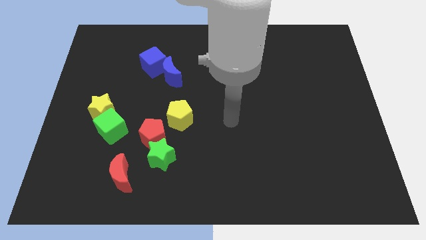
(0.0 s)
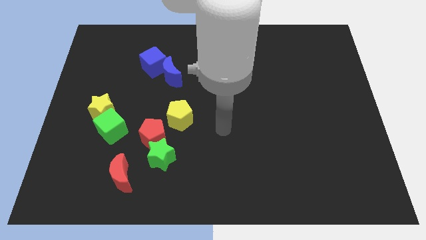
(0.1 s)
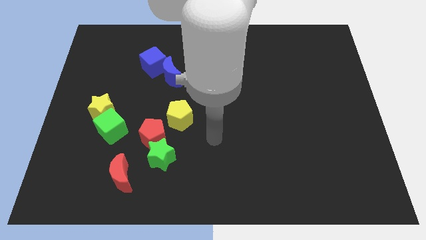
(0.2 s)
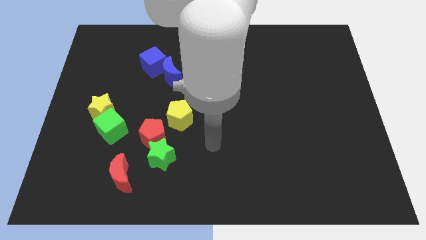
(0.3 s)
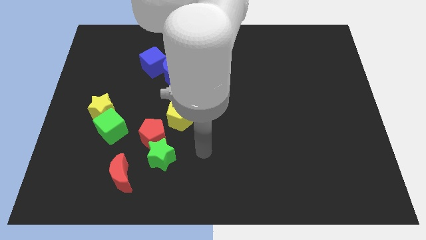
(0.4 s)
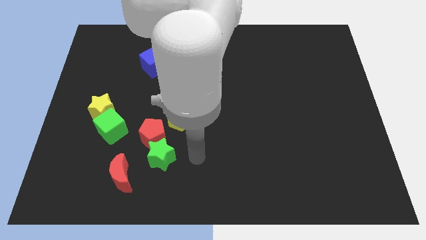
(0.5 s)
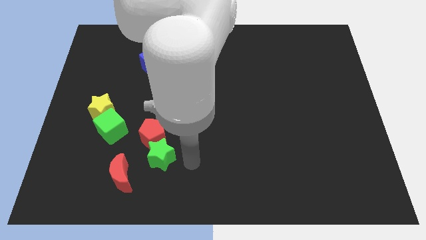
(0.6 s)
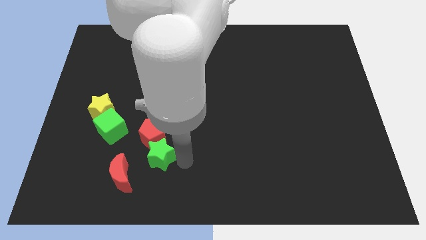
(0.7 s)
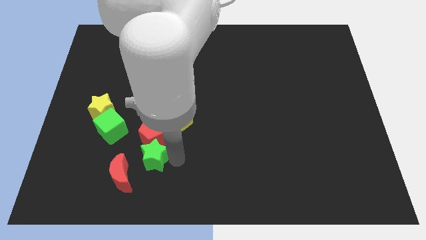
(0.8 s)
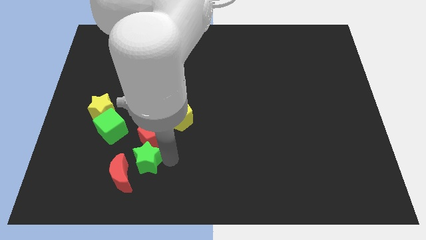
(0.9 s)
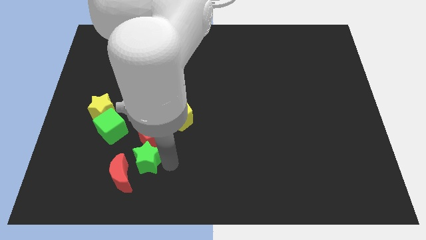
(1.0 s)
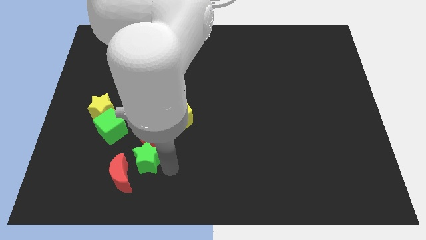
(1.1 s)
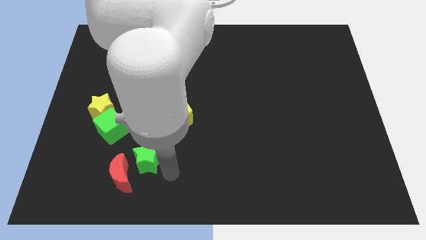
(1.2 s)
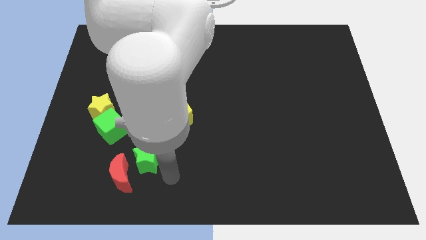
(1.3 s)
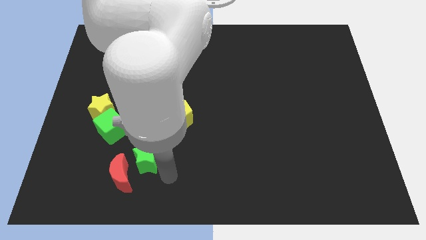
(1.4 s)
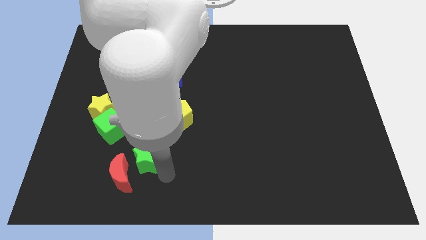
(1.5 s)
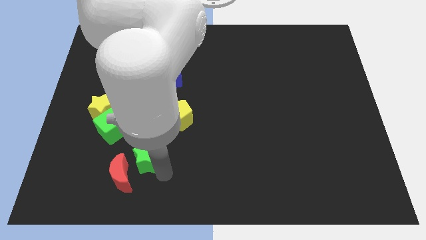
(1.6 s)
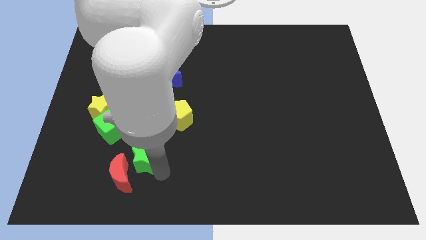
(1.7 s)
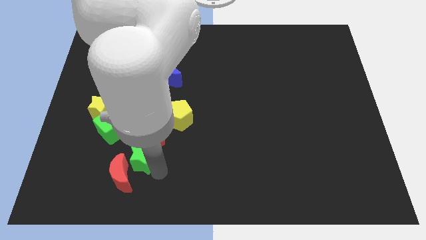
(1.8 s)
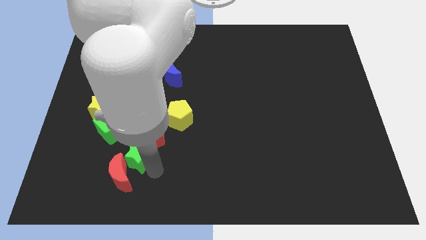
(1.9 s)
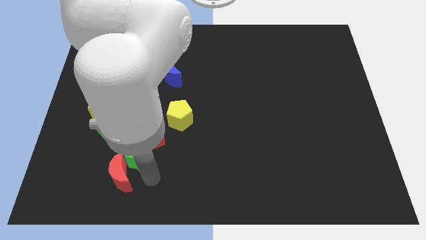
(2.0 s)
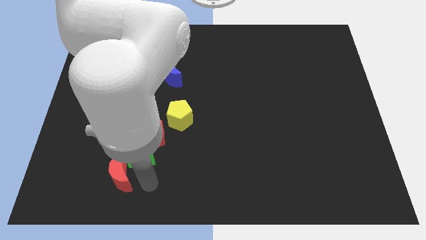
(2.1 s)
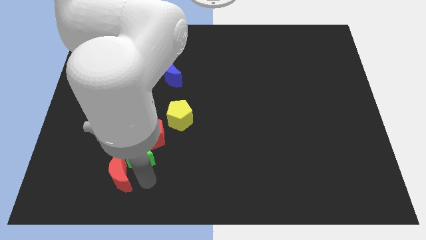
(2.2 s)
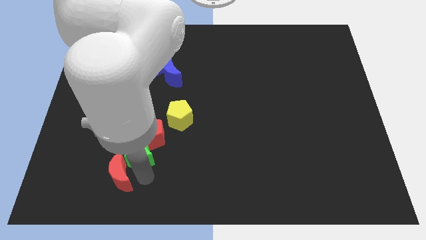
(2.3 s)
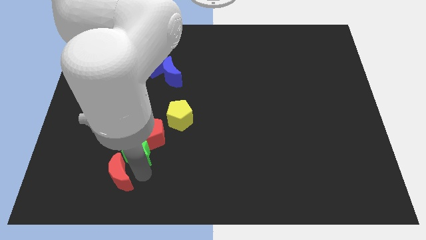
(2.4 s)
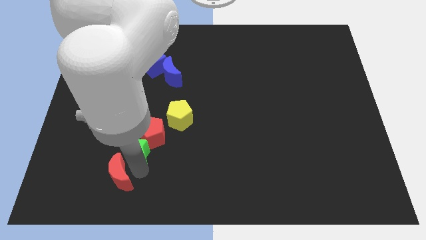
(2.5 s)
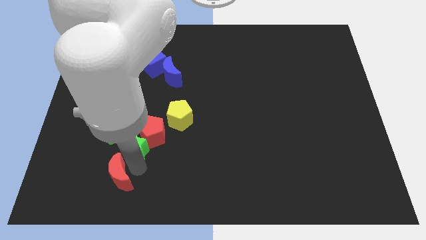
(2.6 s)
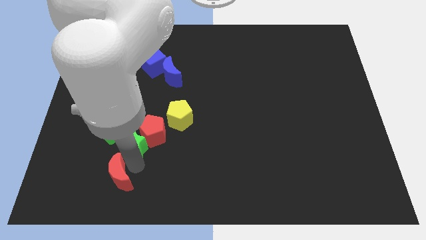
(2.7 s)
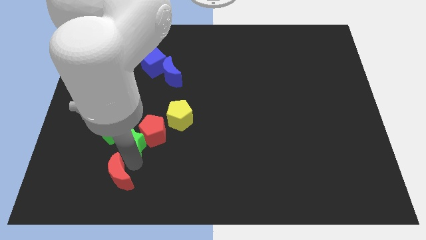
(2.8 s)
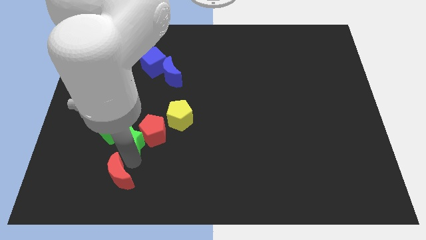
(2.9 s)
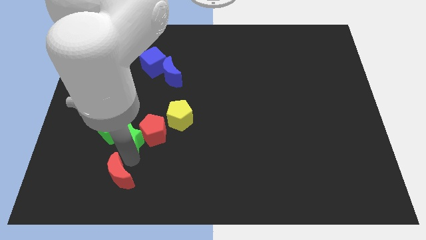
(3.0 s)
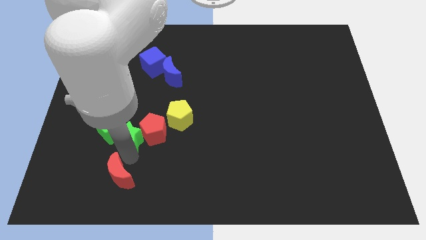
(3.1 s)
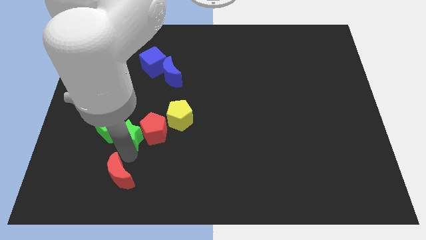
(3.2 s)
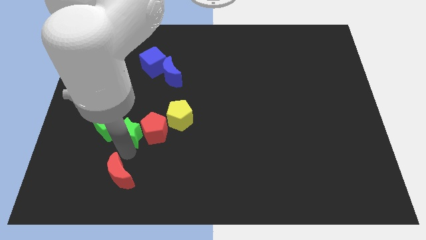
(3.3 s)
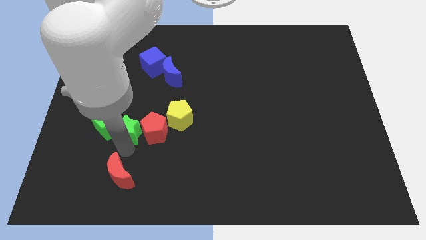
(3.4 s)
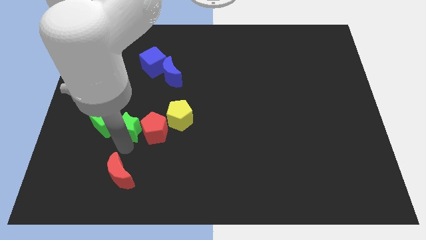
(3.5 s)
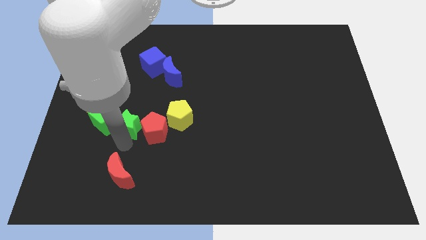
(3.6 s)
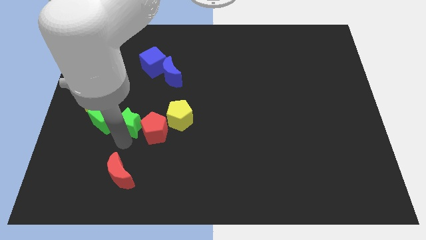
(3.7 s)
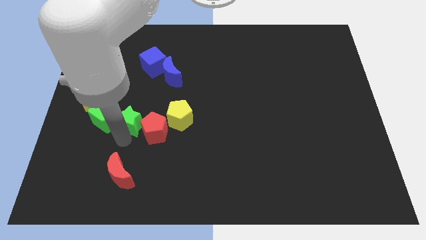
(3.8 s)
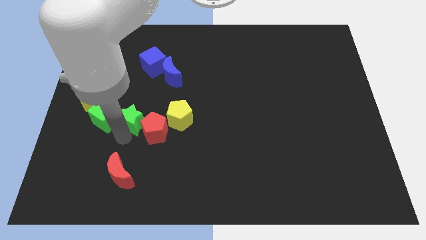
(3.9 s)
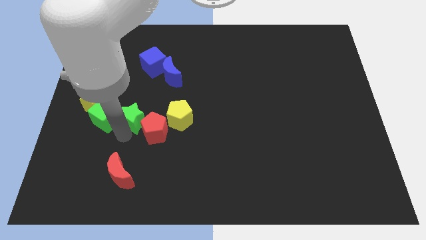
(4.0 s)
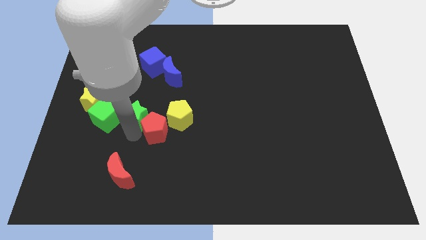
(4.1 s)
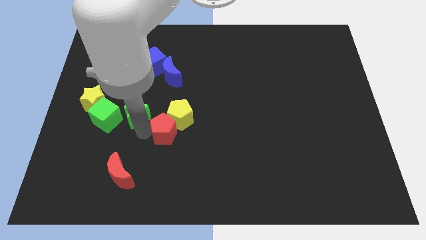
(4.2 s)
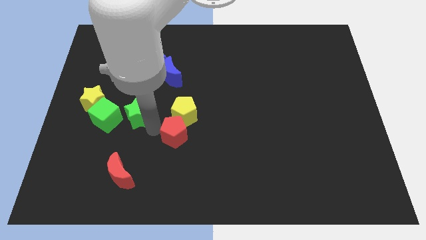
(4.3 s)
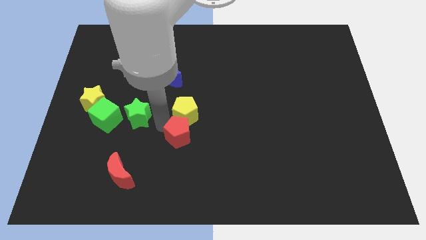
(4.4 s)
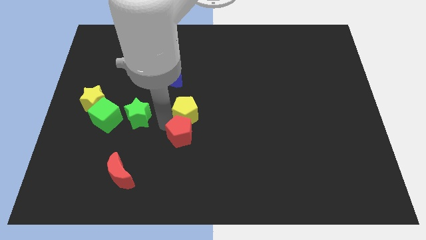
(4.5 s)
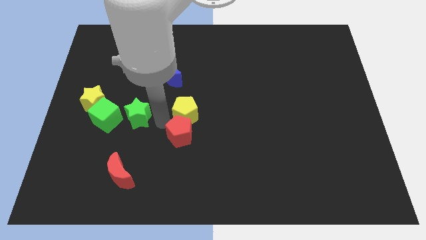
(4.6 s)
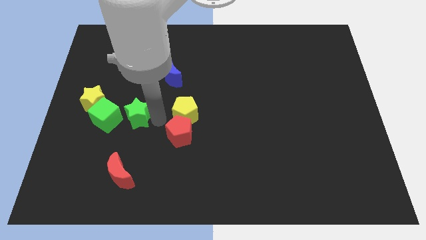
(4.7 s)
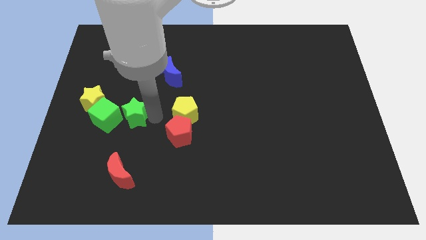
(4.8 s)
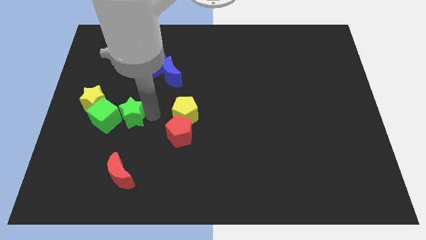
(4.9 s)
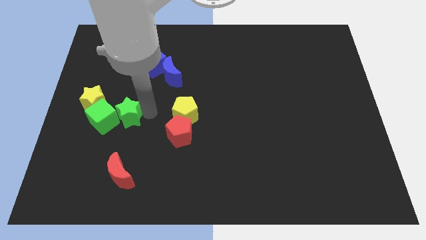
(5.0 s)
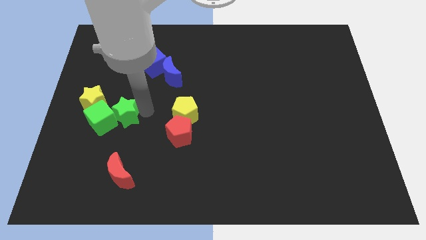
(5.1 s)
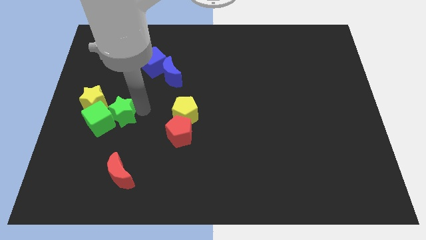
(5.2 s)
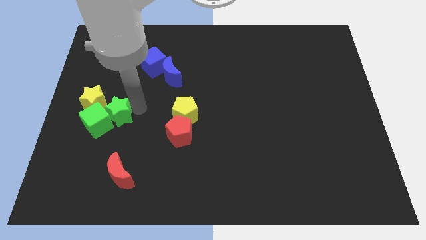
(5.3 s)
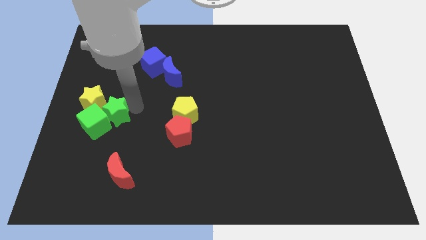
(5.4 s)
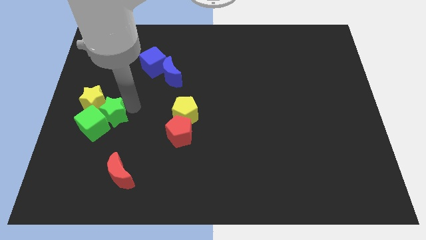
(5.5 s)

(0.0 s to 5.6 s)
slide the green star towards the yellow star
